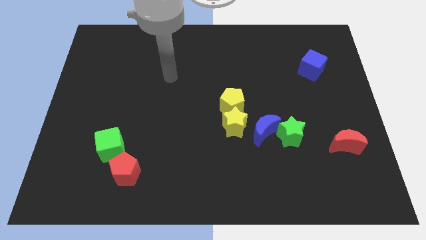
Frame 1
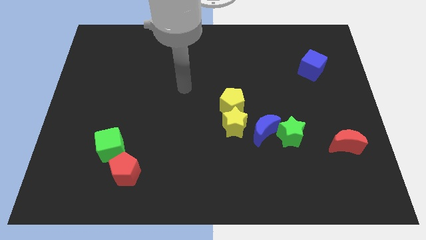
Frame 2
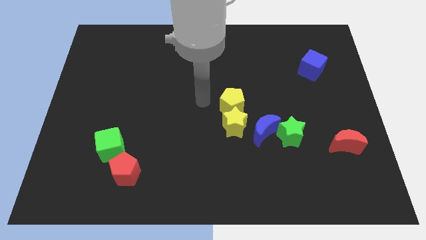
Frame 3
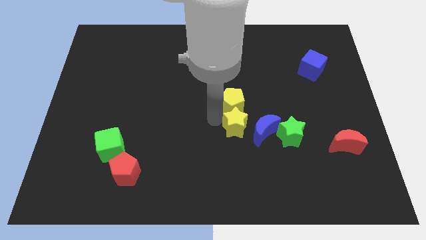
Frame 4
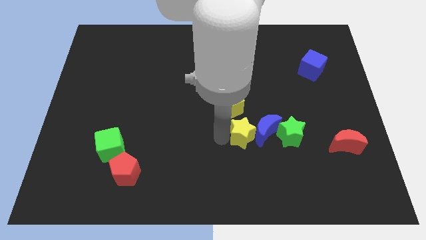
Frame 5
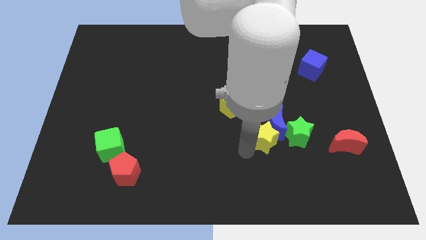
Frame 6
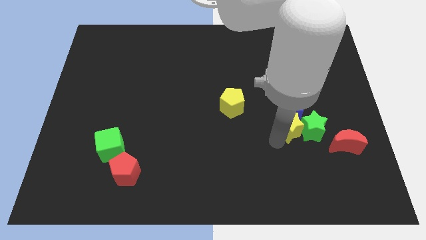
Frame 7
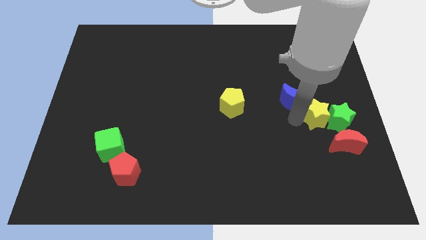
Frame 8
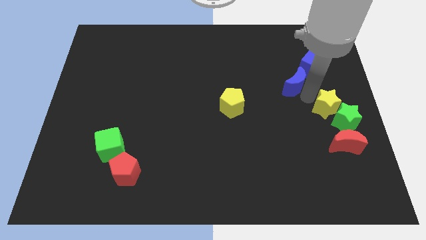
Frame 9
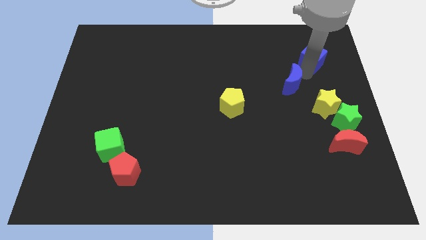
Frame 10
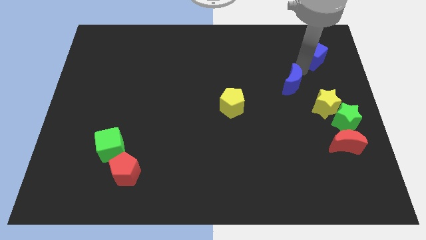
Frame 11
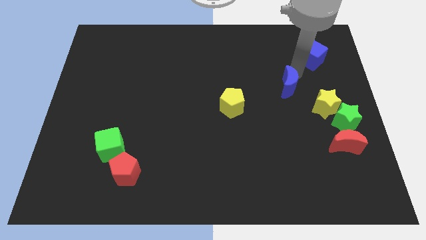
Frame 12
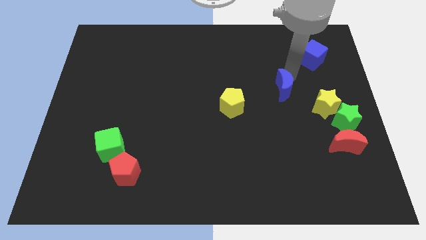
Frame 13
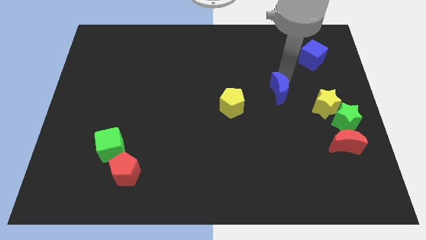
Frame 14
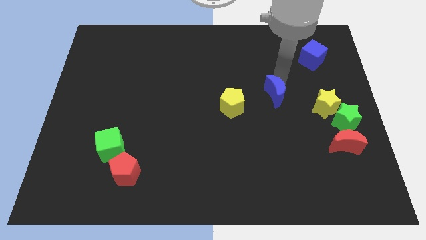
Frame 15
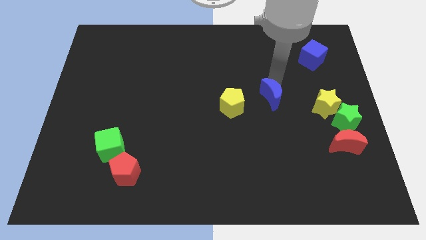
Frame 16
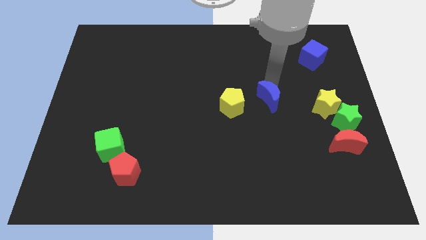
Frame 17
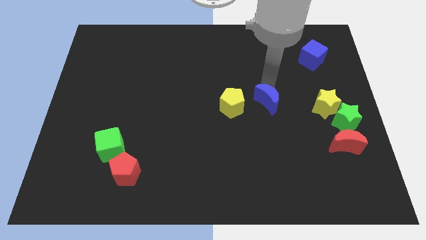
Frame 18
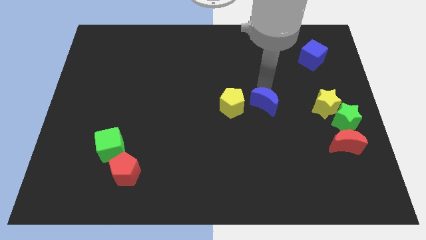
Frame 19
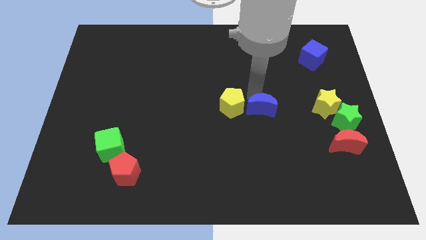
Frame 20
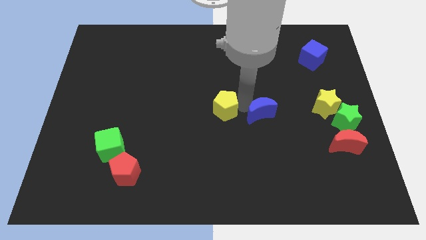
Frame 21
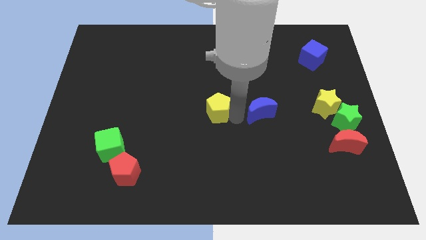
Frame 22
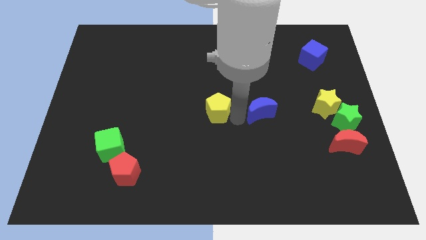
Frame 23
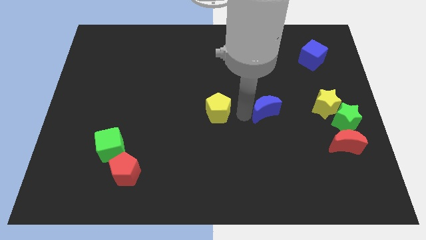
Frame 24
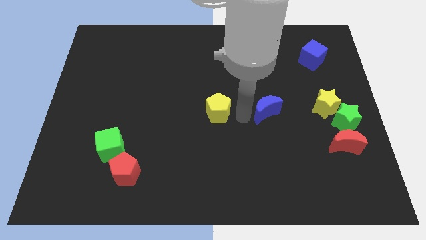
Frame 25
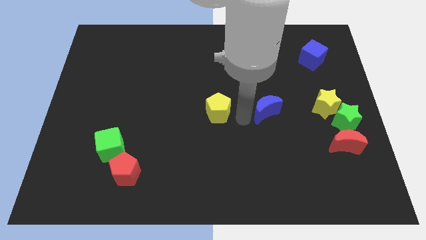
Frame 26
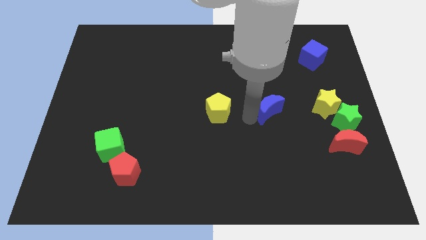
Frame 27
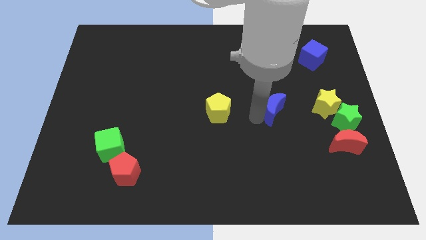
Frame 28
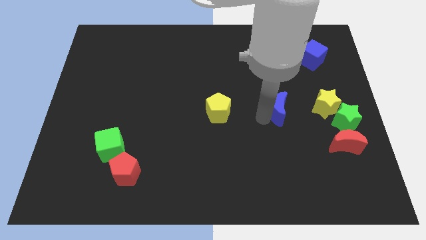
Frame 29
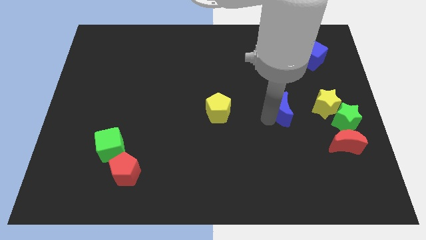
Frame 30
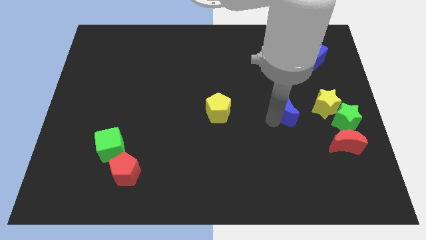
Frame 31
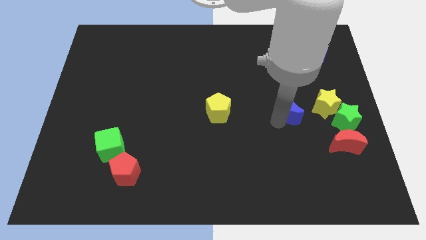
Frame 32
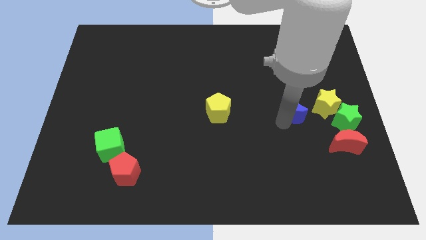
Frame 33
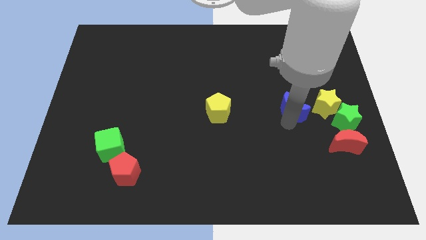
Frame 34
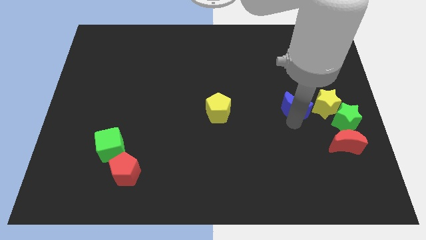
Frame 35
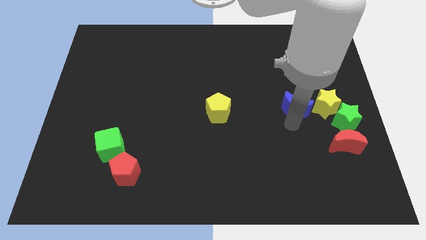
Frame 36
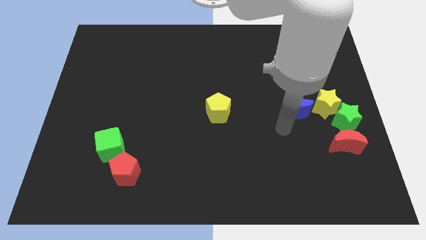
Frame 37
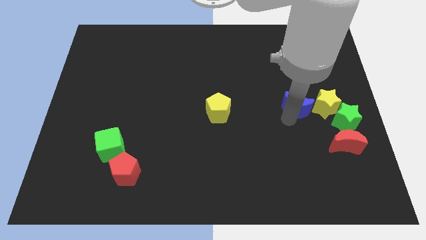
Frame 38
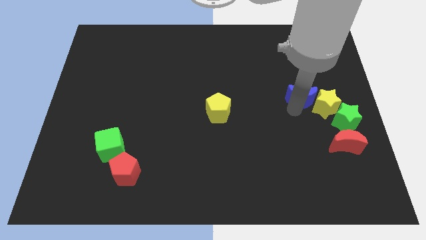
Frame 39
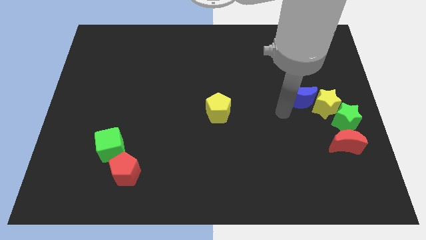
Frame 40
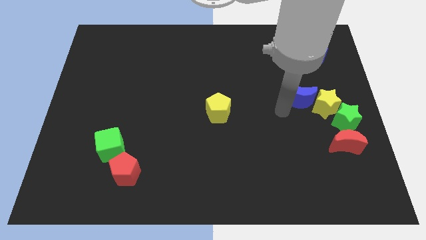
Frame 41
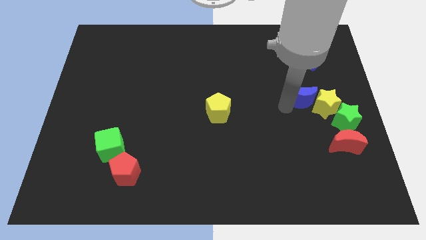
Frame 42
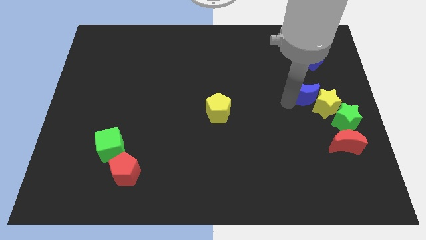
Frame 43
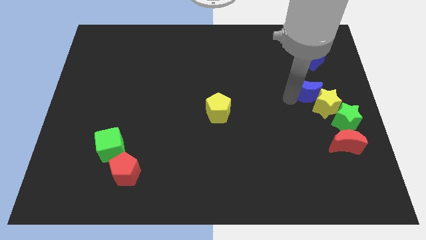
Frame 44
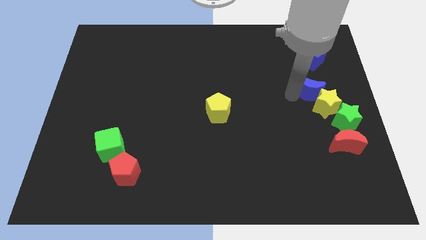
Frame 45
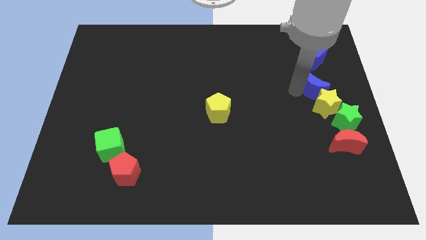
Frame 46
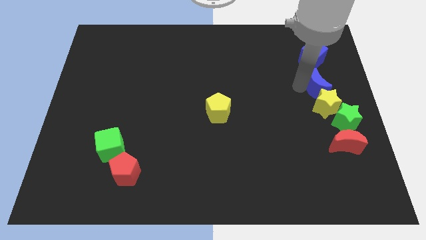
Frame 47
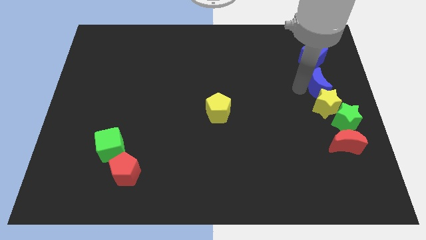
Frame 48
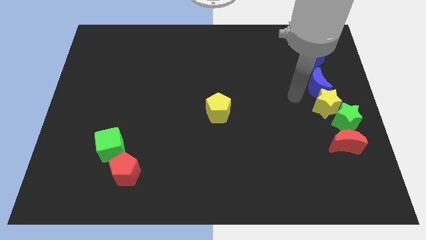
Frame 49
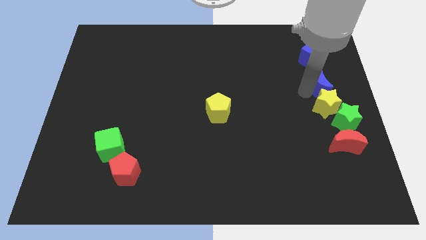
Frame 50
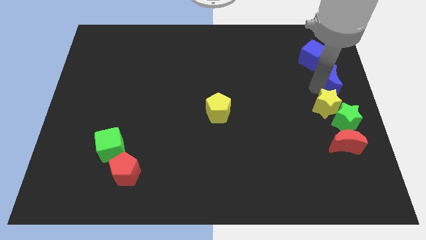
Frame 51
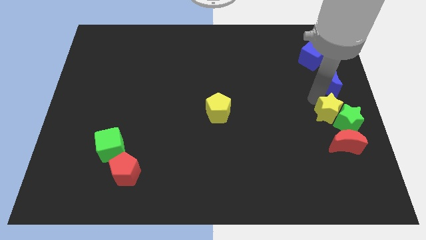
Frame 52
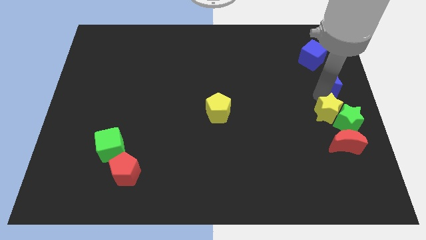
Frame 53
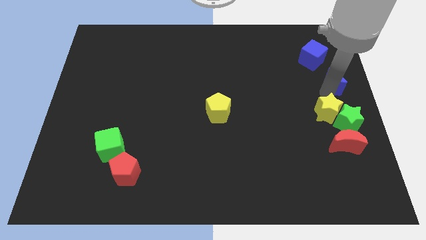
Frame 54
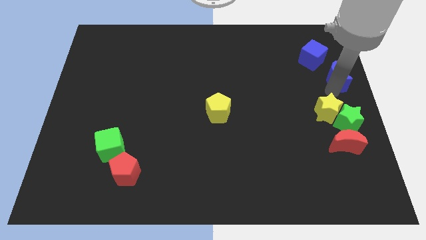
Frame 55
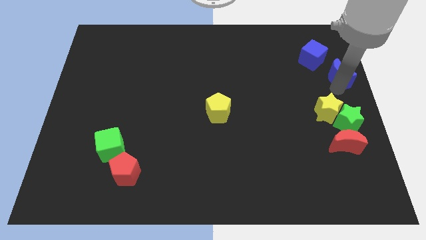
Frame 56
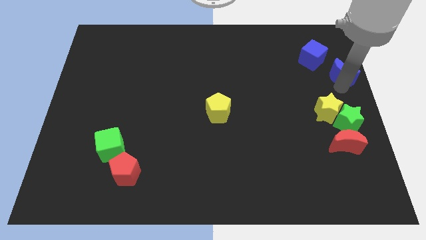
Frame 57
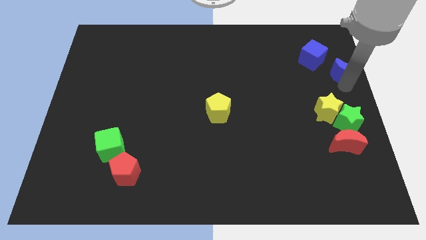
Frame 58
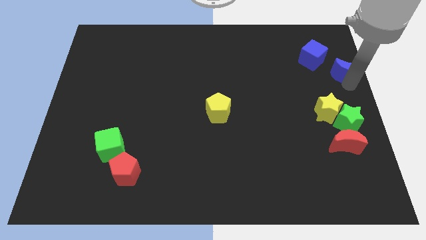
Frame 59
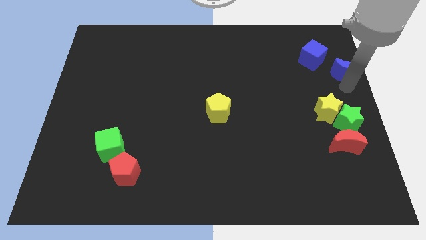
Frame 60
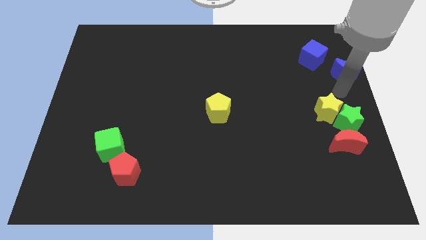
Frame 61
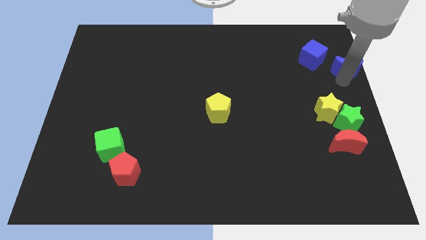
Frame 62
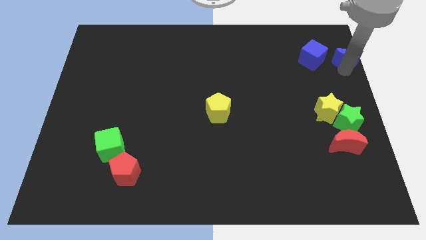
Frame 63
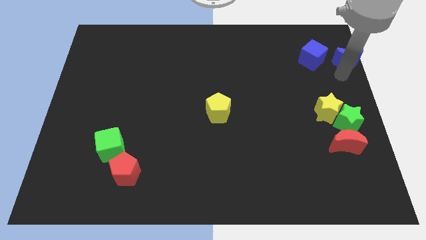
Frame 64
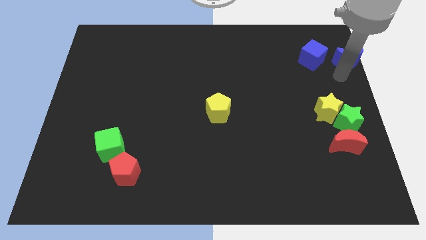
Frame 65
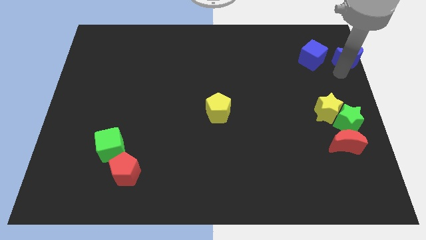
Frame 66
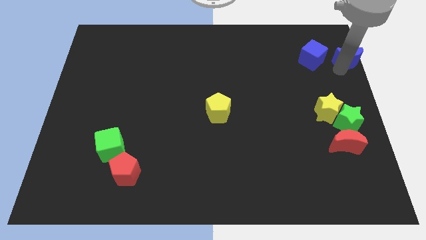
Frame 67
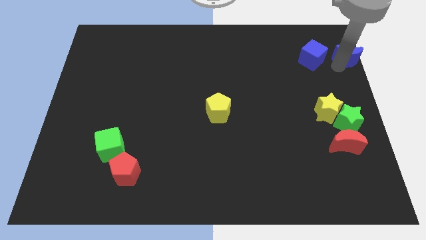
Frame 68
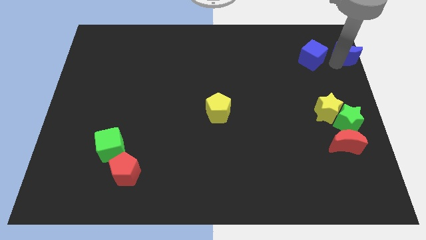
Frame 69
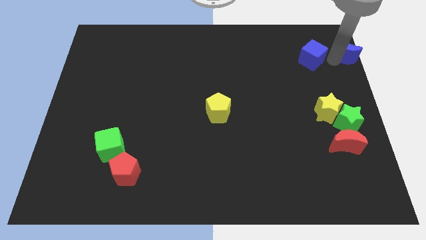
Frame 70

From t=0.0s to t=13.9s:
put the blue moon to the top right of the board

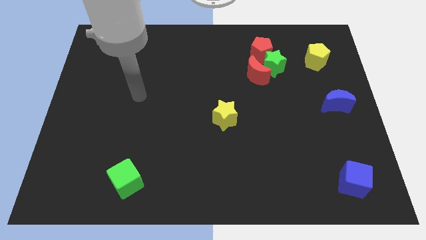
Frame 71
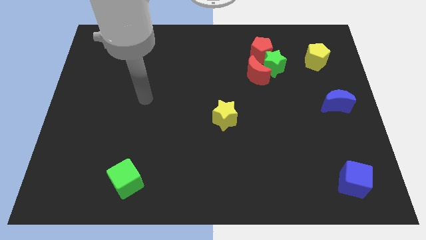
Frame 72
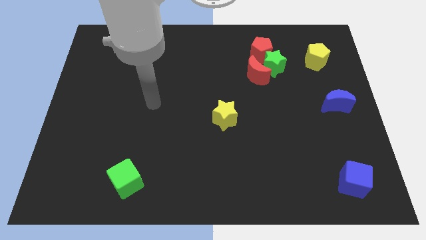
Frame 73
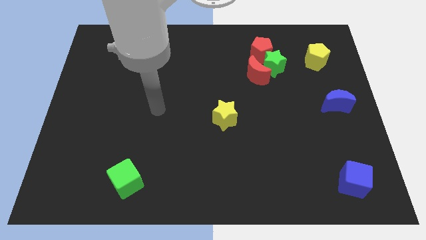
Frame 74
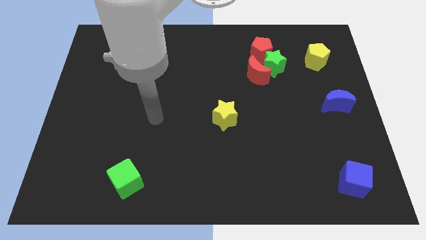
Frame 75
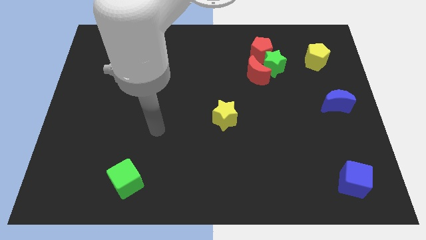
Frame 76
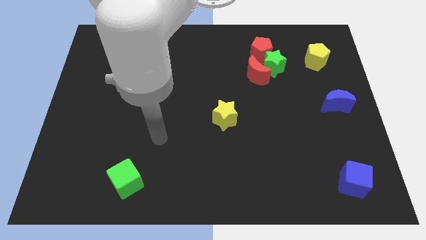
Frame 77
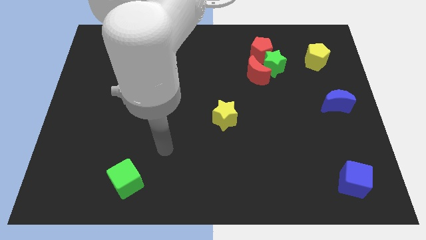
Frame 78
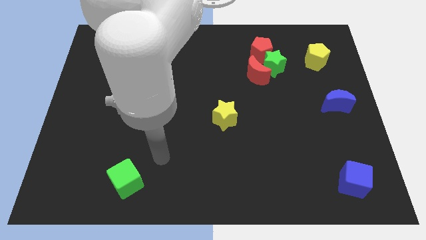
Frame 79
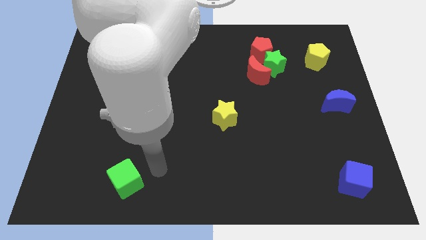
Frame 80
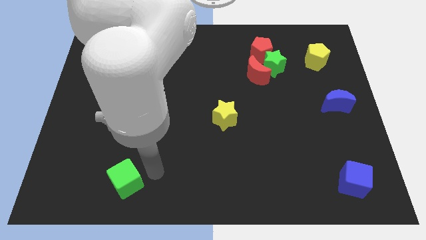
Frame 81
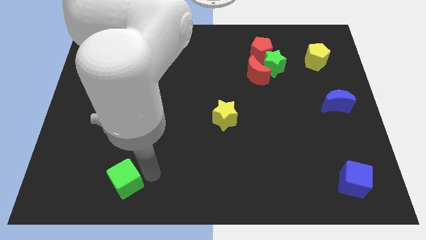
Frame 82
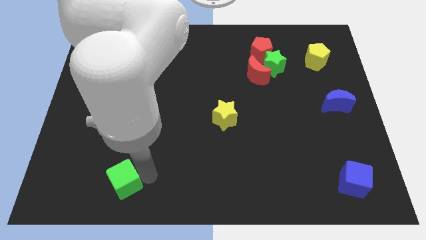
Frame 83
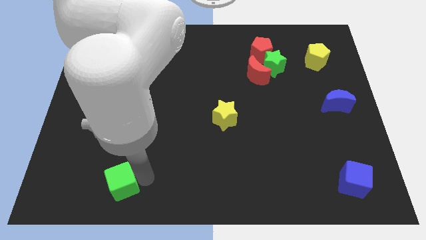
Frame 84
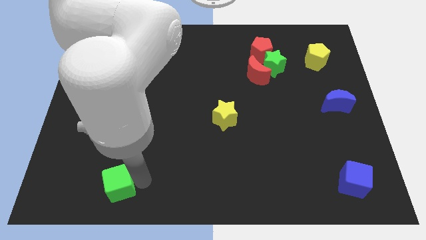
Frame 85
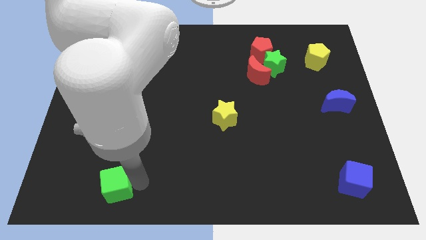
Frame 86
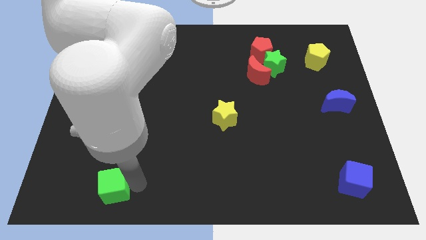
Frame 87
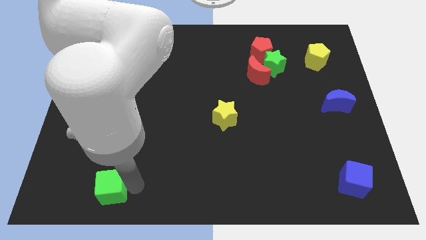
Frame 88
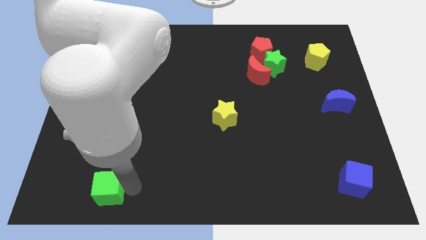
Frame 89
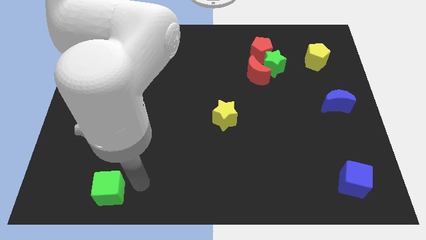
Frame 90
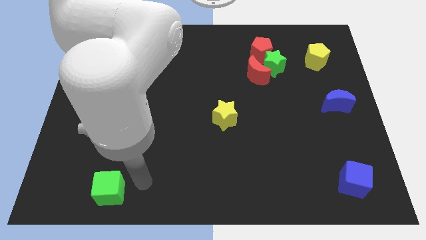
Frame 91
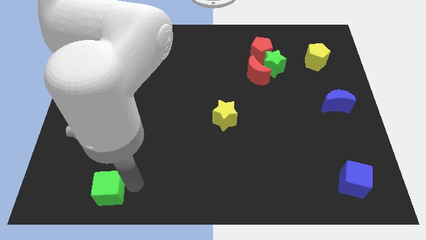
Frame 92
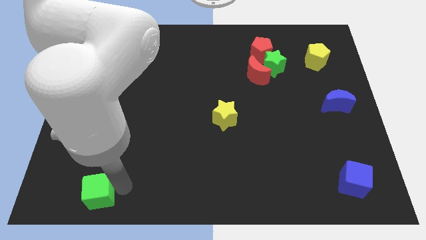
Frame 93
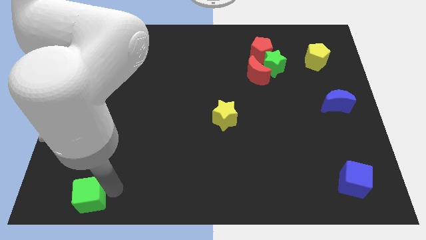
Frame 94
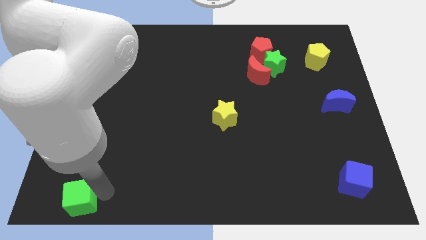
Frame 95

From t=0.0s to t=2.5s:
push the green cube to the bottom left of the board
